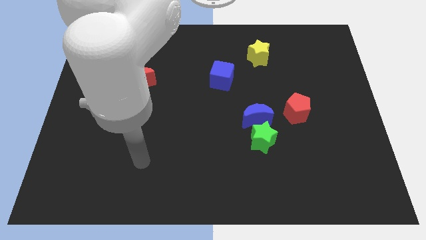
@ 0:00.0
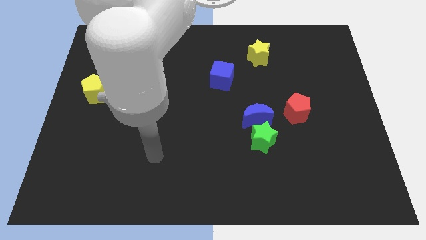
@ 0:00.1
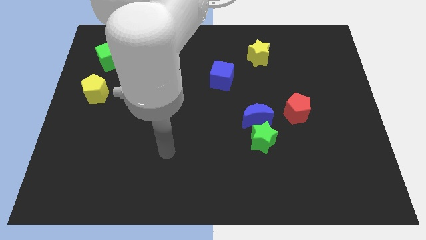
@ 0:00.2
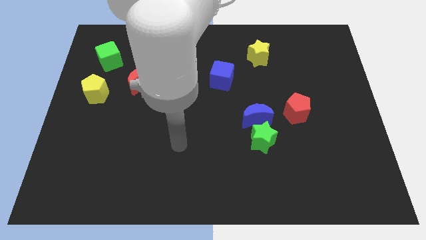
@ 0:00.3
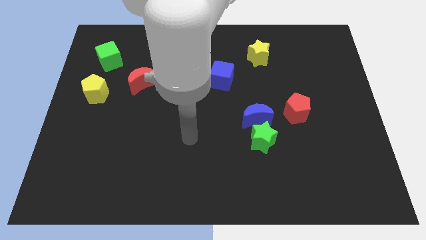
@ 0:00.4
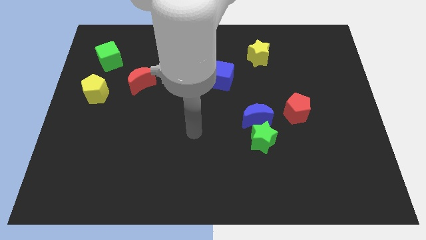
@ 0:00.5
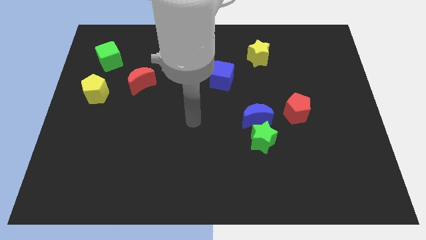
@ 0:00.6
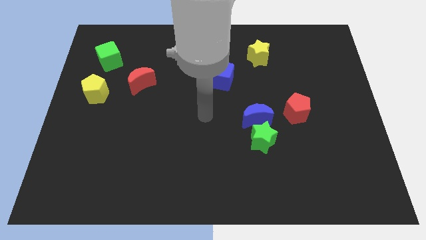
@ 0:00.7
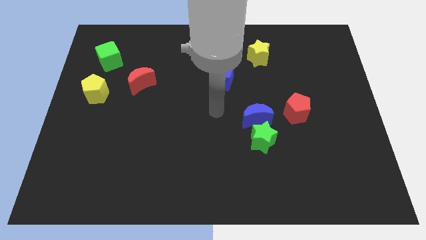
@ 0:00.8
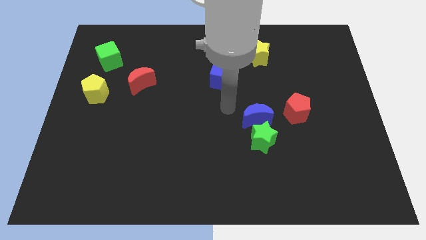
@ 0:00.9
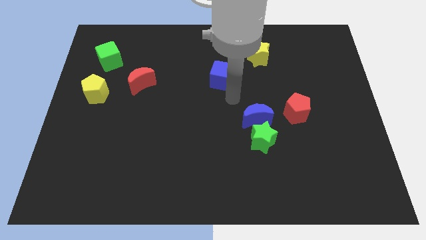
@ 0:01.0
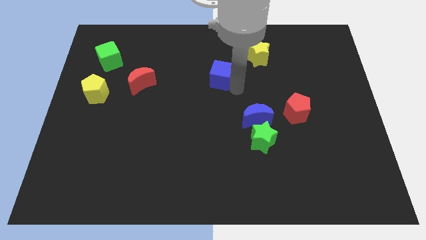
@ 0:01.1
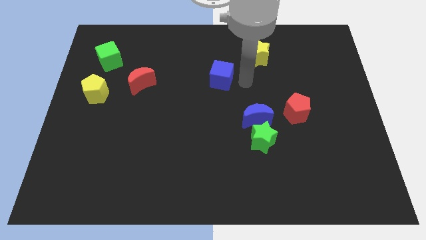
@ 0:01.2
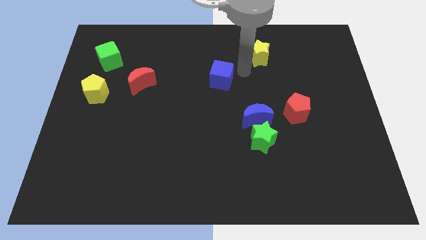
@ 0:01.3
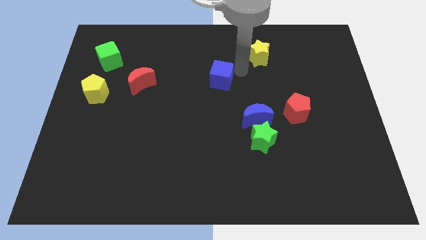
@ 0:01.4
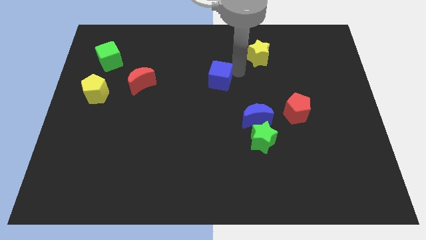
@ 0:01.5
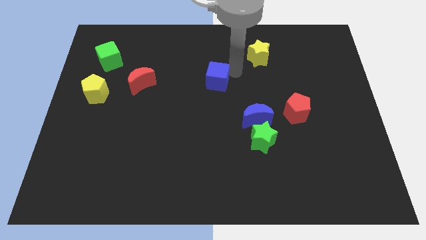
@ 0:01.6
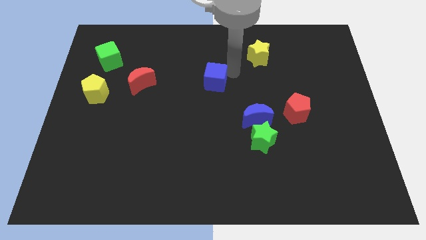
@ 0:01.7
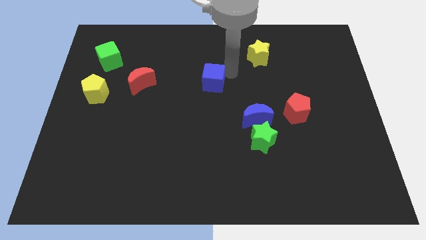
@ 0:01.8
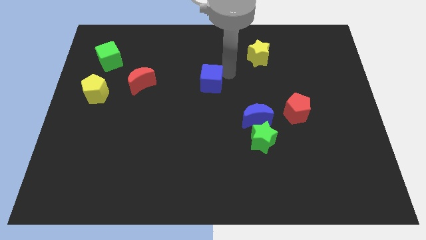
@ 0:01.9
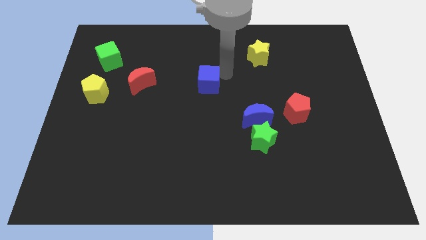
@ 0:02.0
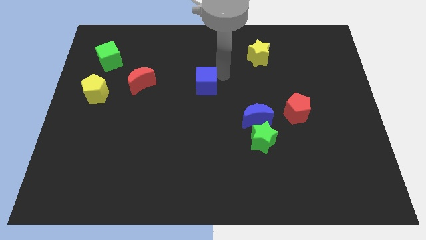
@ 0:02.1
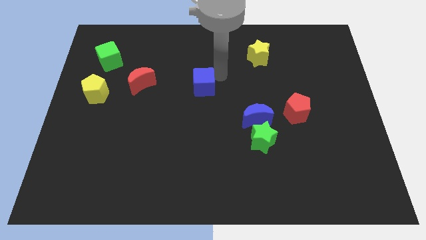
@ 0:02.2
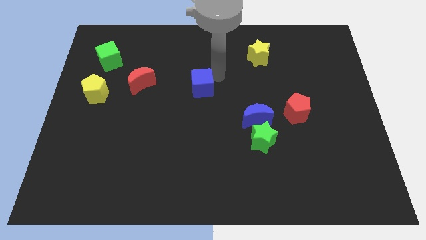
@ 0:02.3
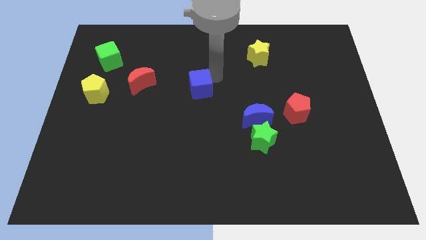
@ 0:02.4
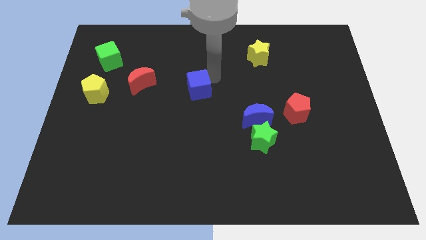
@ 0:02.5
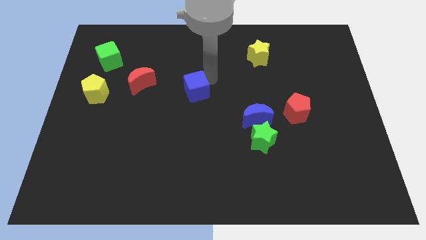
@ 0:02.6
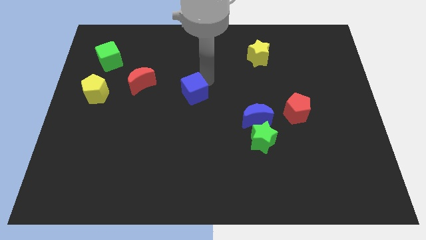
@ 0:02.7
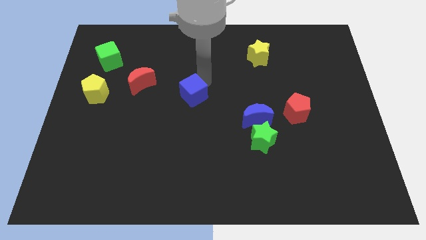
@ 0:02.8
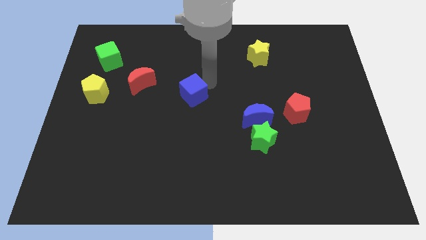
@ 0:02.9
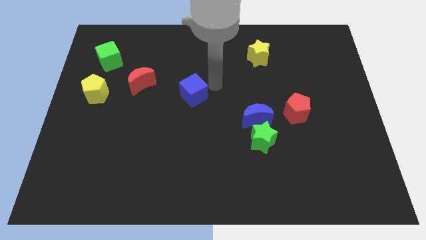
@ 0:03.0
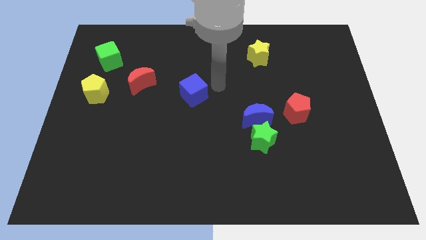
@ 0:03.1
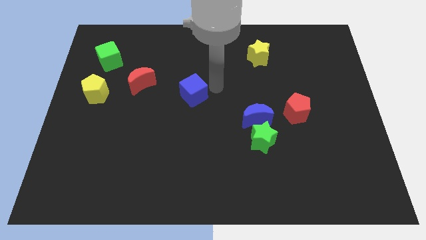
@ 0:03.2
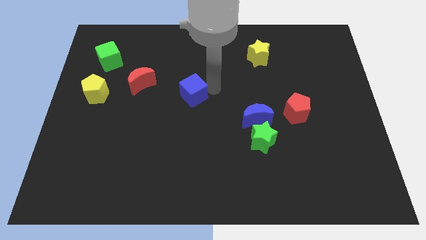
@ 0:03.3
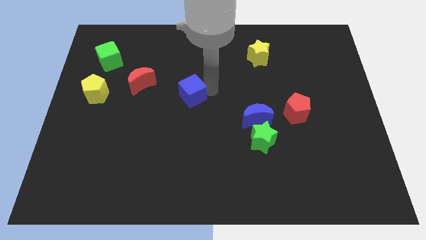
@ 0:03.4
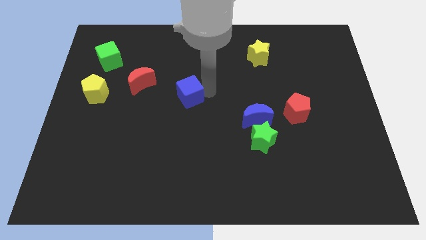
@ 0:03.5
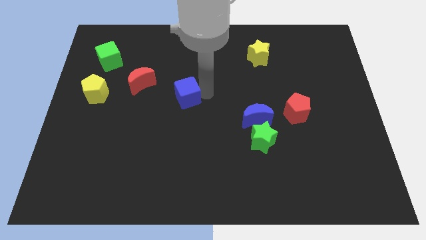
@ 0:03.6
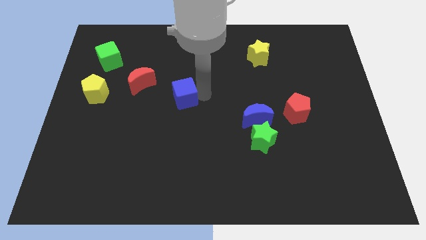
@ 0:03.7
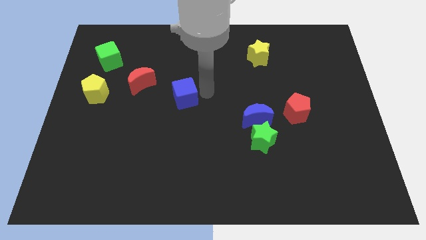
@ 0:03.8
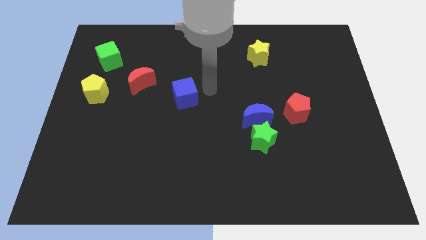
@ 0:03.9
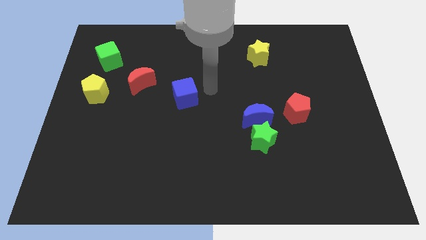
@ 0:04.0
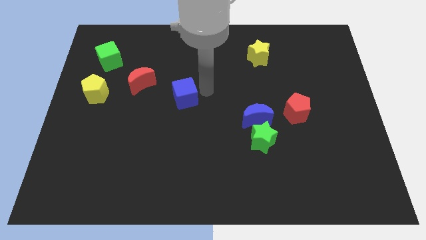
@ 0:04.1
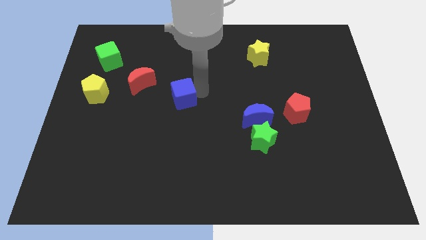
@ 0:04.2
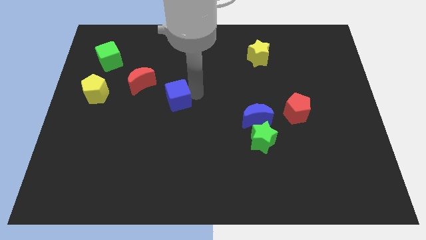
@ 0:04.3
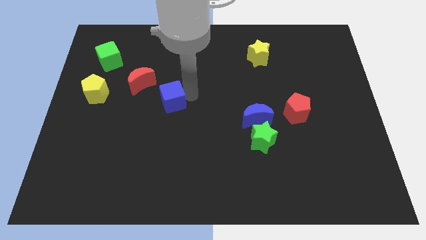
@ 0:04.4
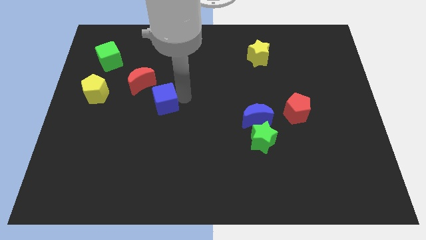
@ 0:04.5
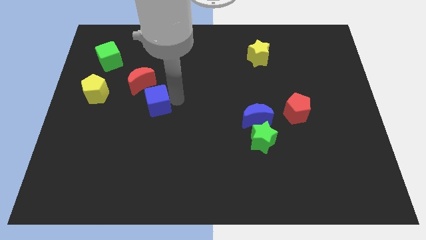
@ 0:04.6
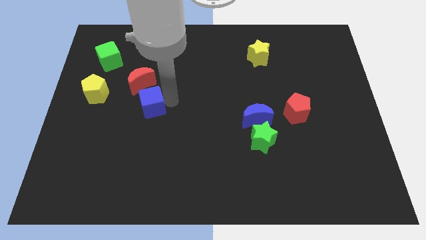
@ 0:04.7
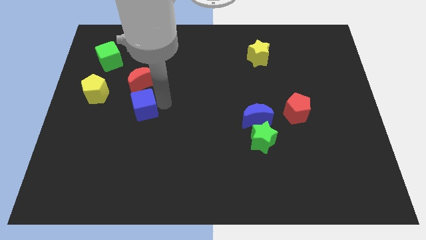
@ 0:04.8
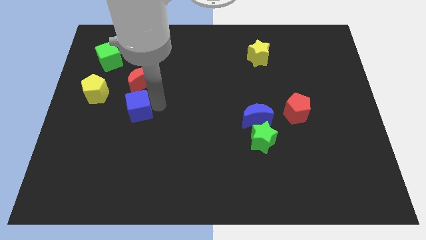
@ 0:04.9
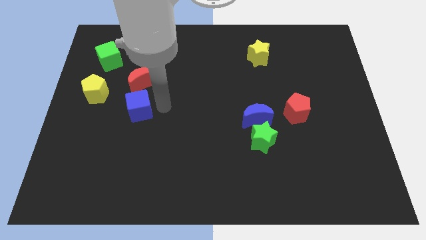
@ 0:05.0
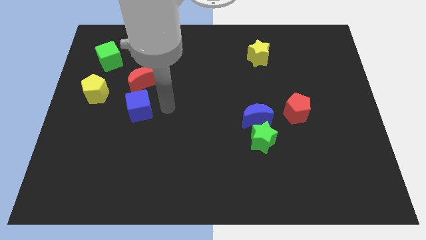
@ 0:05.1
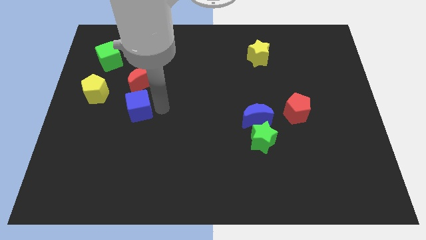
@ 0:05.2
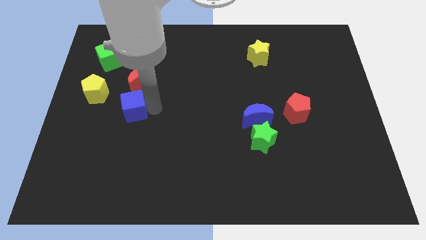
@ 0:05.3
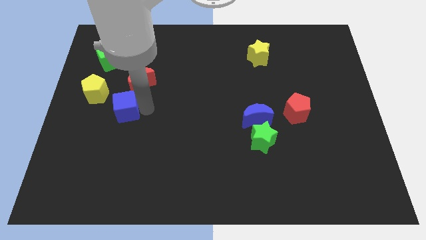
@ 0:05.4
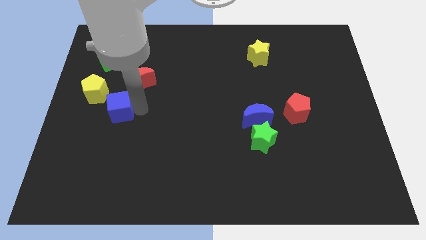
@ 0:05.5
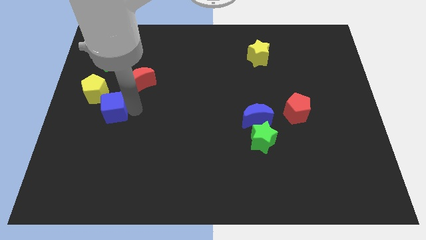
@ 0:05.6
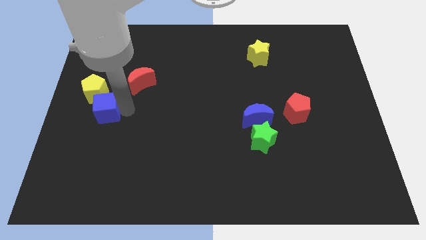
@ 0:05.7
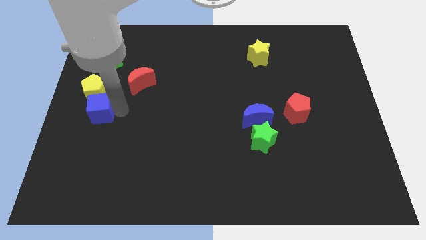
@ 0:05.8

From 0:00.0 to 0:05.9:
move the blue cube to the center left

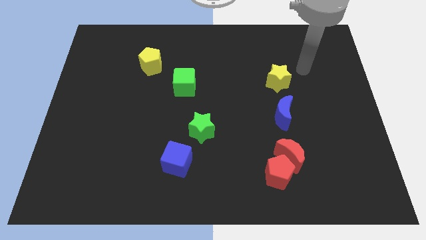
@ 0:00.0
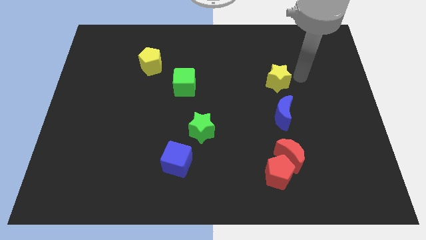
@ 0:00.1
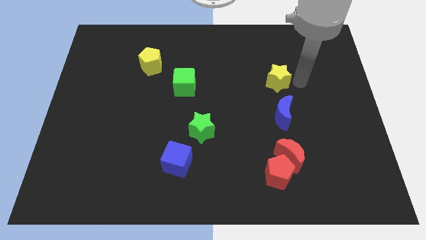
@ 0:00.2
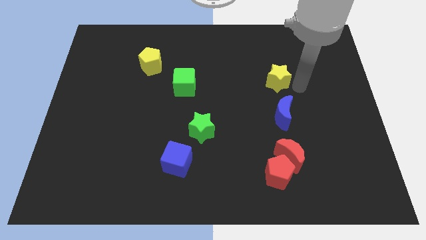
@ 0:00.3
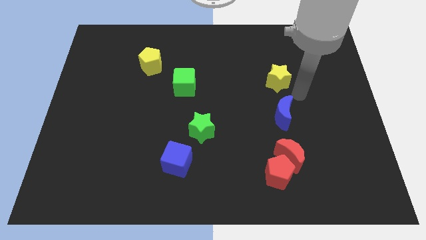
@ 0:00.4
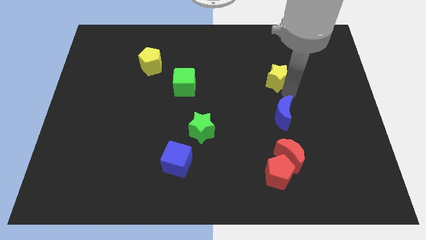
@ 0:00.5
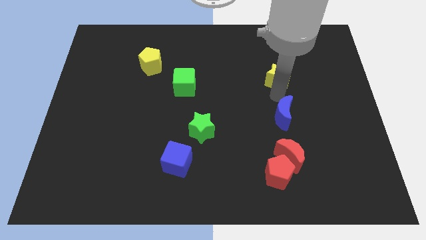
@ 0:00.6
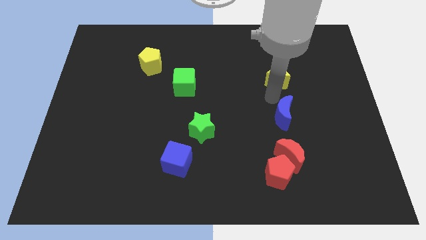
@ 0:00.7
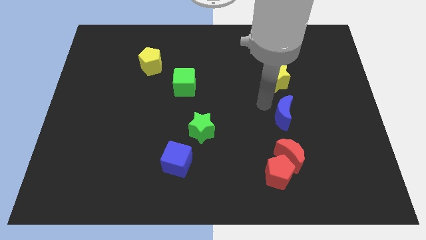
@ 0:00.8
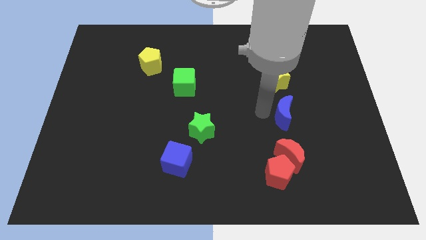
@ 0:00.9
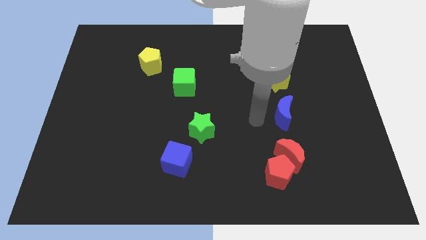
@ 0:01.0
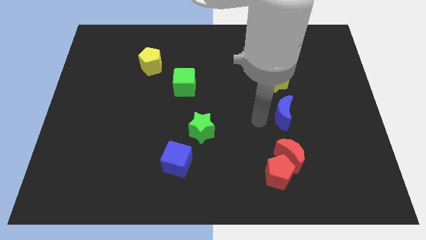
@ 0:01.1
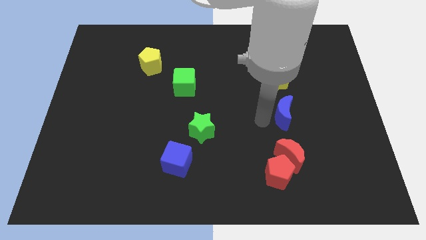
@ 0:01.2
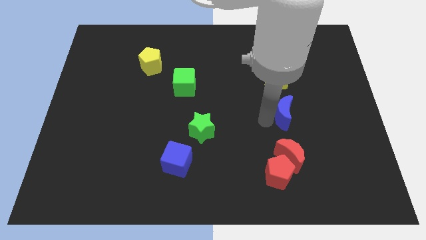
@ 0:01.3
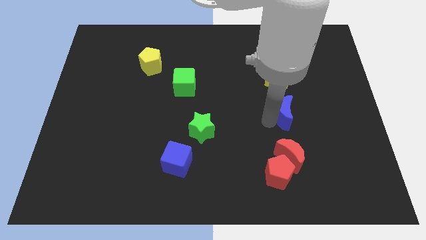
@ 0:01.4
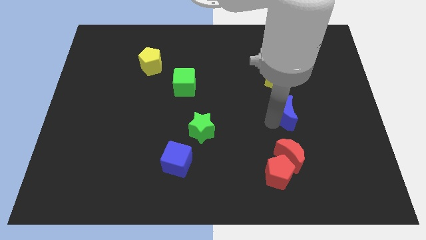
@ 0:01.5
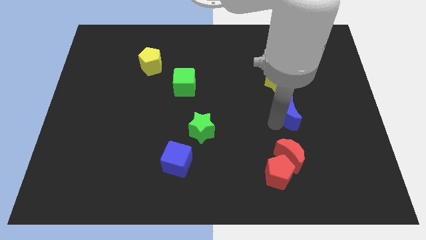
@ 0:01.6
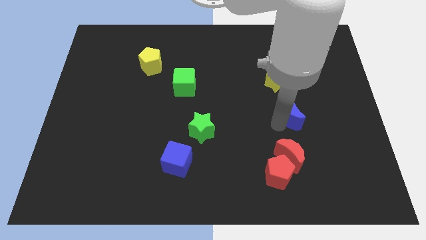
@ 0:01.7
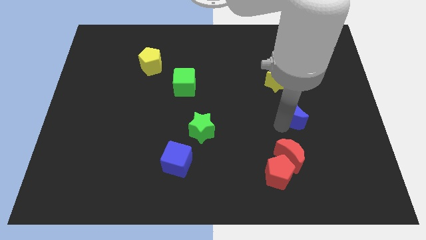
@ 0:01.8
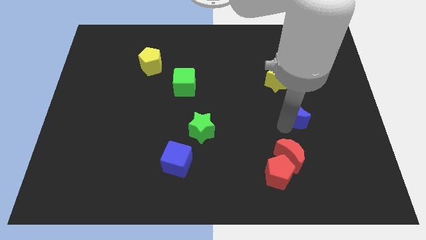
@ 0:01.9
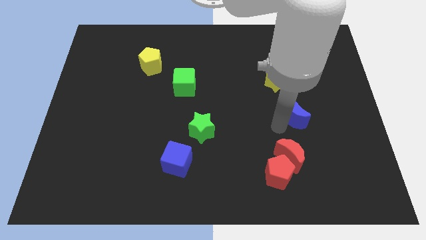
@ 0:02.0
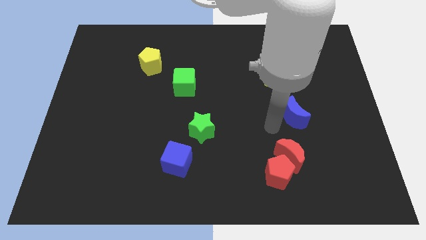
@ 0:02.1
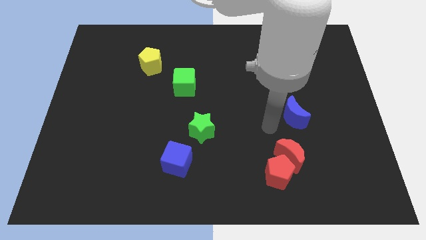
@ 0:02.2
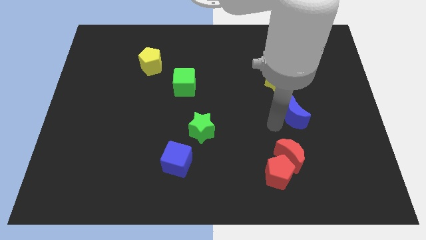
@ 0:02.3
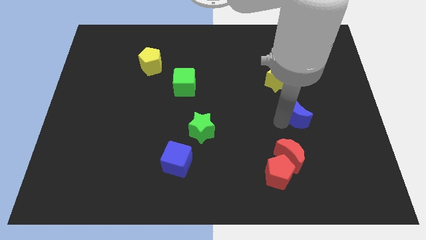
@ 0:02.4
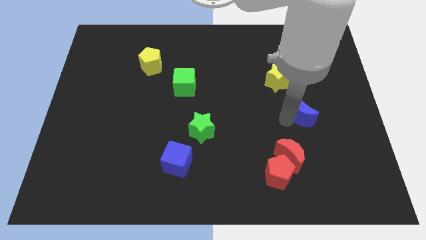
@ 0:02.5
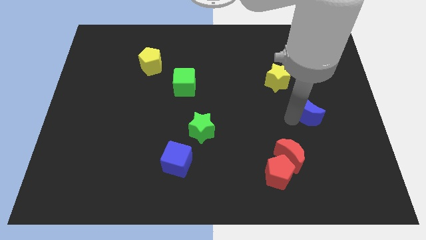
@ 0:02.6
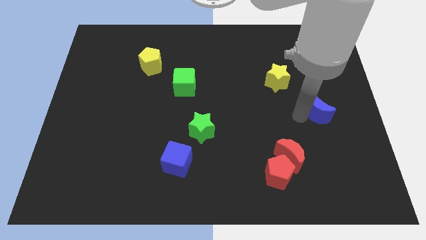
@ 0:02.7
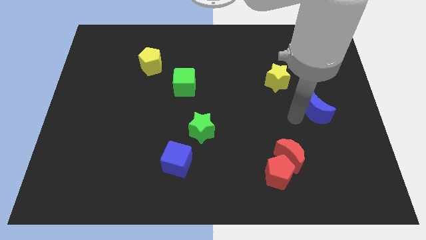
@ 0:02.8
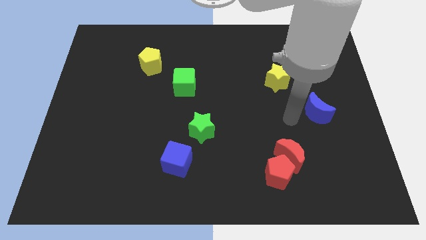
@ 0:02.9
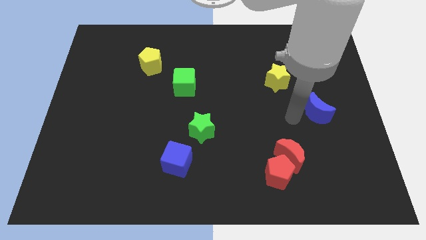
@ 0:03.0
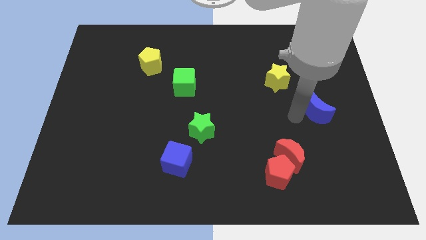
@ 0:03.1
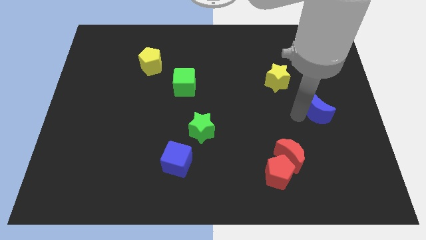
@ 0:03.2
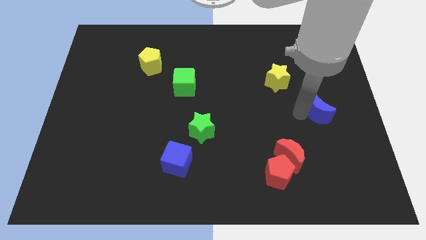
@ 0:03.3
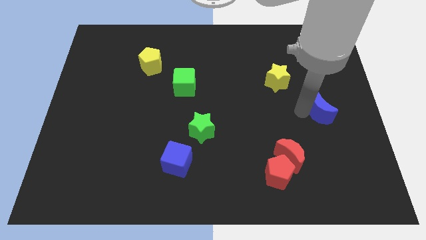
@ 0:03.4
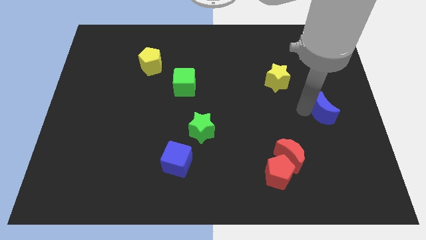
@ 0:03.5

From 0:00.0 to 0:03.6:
push the blue moon to the center right
